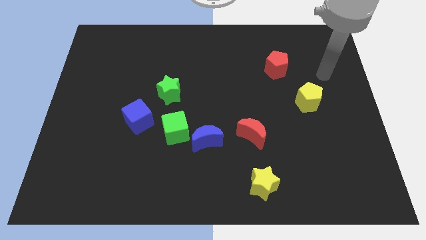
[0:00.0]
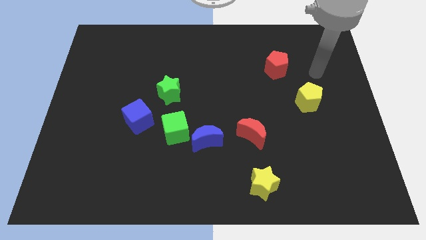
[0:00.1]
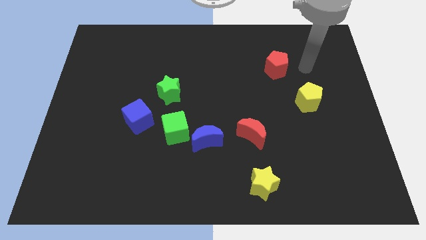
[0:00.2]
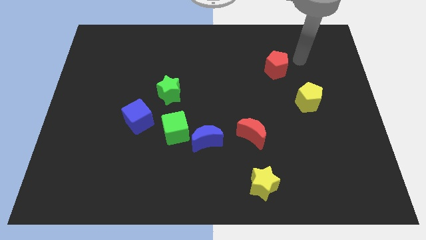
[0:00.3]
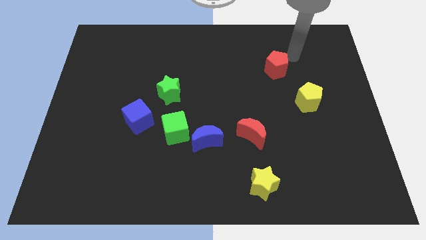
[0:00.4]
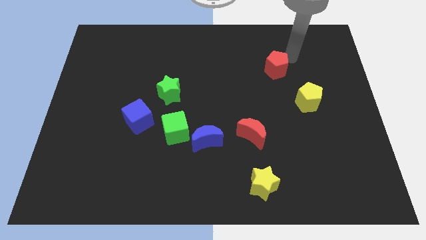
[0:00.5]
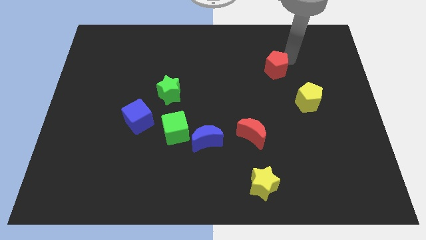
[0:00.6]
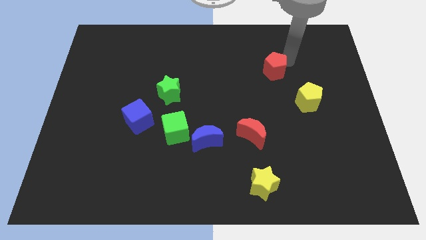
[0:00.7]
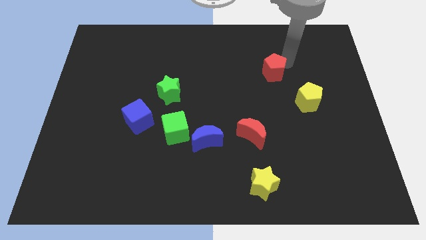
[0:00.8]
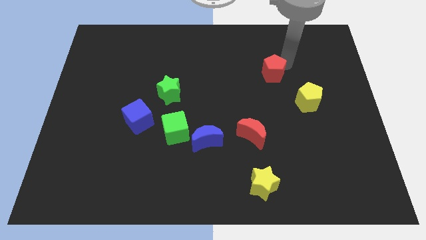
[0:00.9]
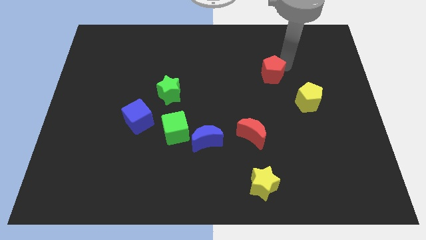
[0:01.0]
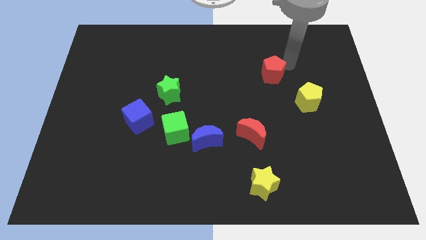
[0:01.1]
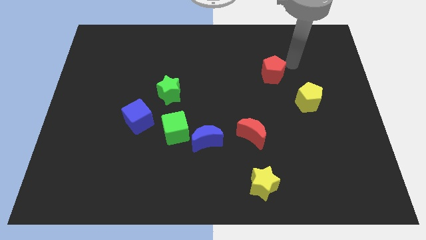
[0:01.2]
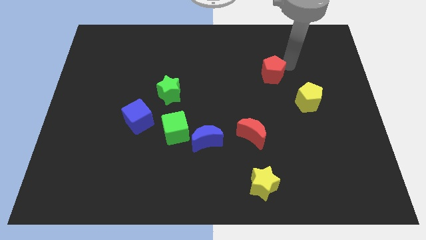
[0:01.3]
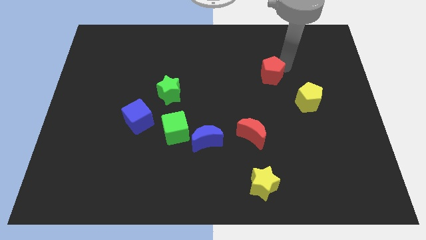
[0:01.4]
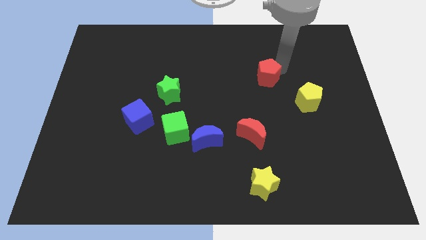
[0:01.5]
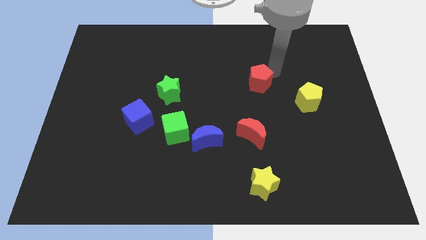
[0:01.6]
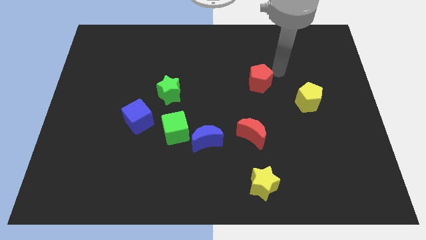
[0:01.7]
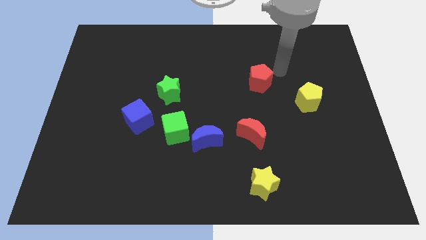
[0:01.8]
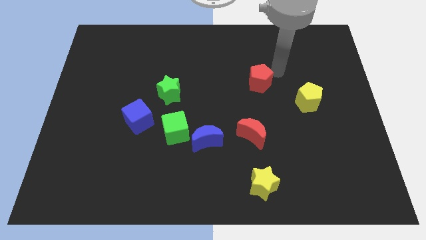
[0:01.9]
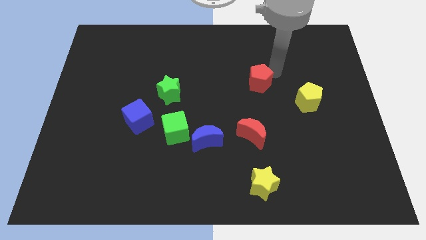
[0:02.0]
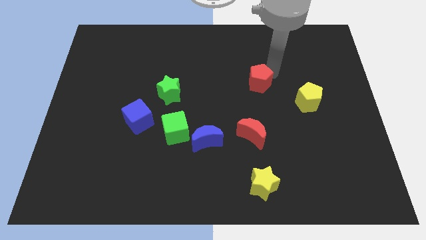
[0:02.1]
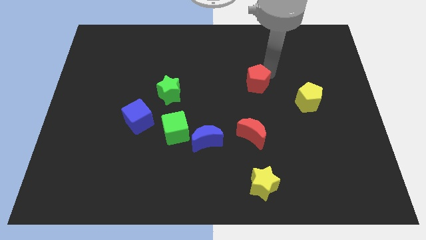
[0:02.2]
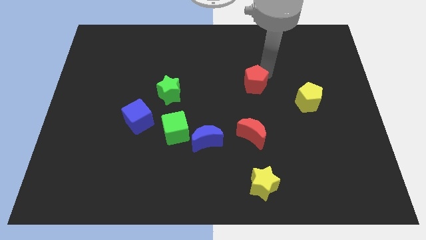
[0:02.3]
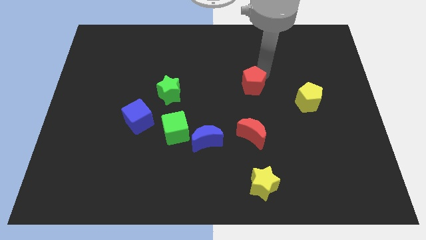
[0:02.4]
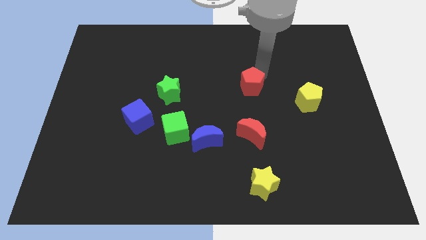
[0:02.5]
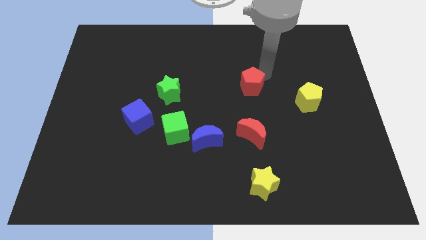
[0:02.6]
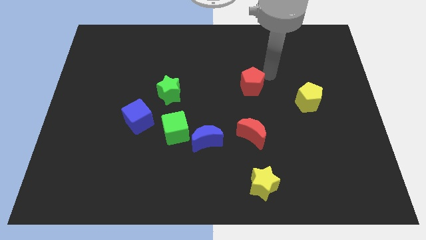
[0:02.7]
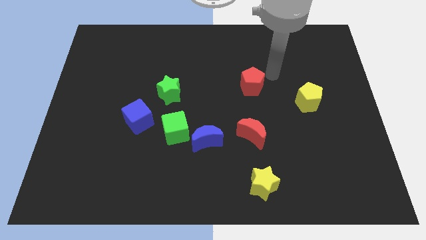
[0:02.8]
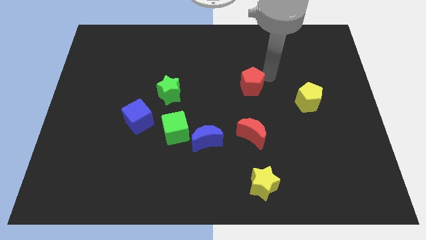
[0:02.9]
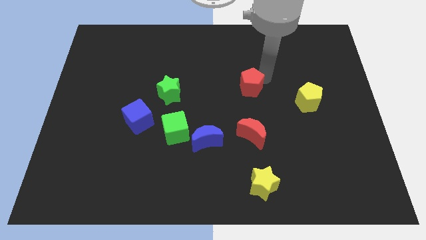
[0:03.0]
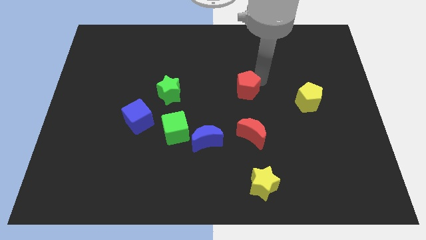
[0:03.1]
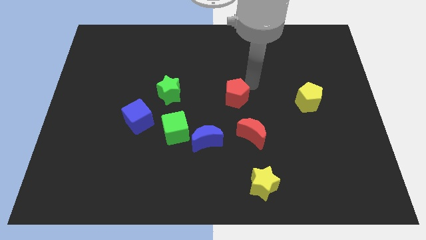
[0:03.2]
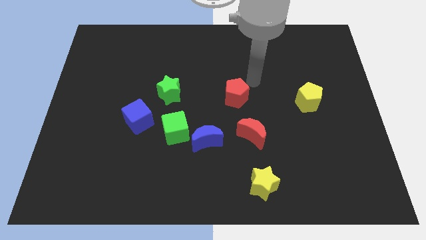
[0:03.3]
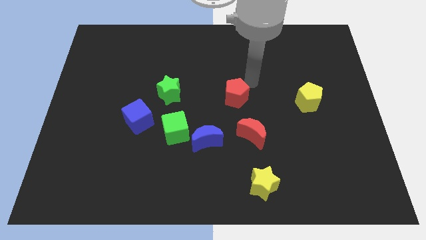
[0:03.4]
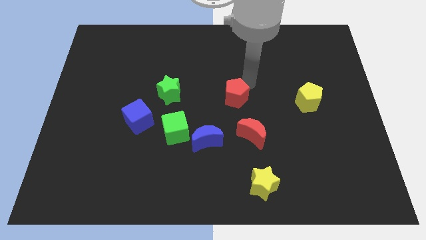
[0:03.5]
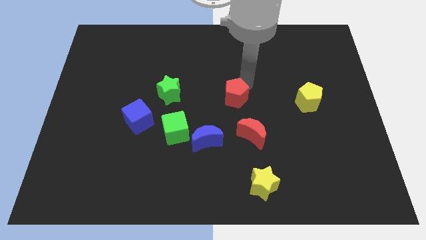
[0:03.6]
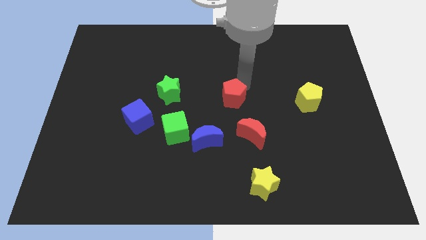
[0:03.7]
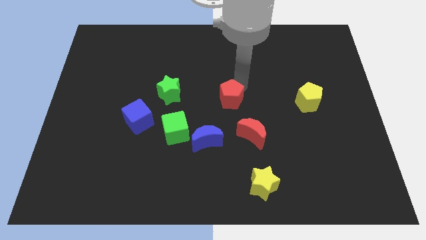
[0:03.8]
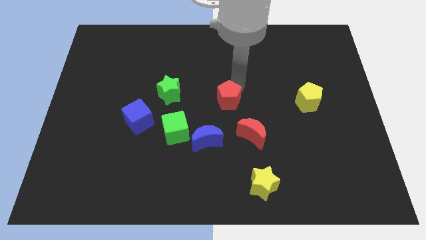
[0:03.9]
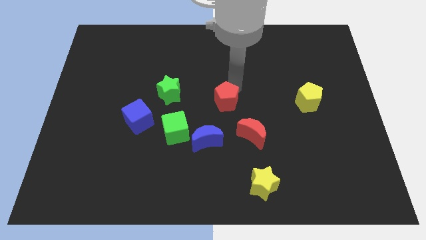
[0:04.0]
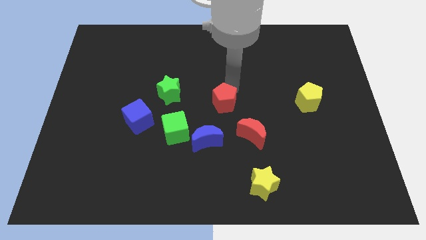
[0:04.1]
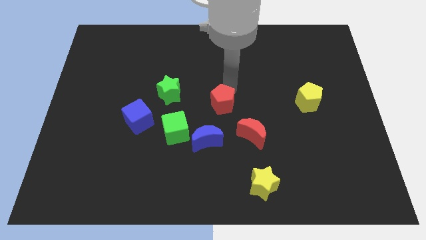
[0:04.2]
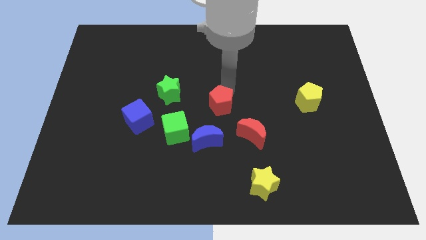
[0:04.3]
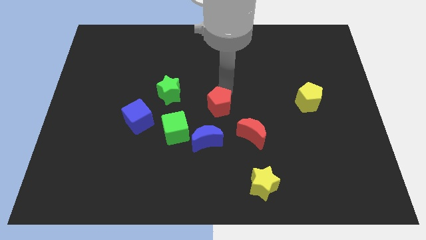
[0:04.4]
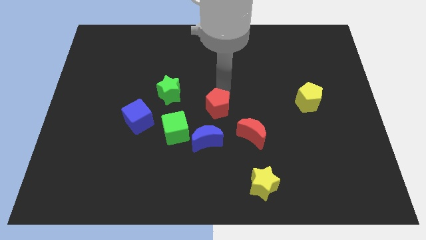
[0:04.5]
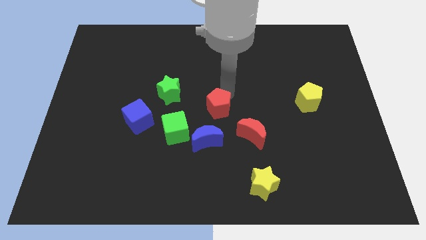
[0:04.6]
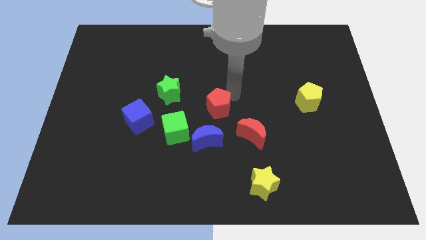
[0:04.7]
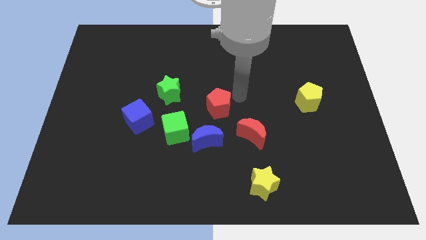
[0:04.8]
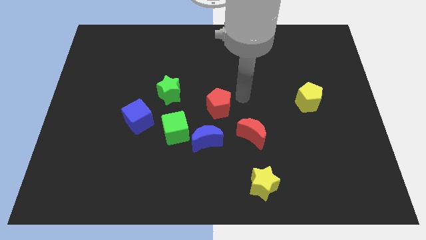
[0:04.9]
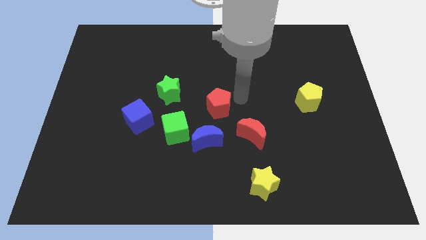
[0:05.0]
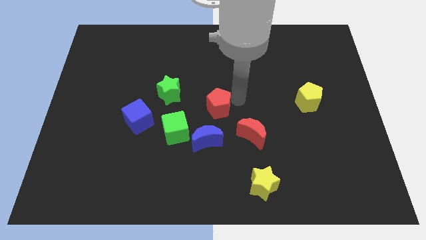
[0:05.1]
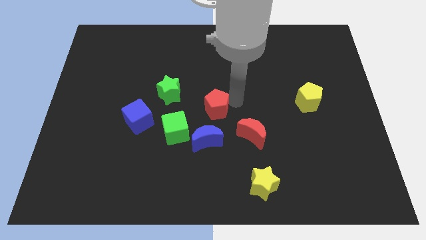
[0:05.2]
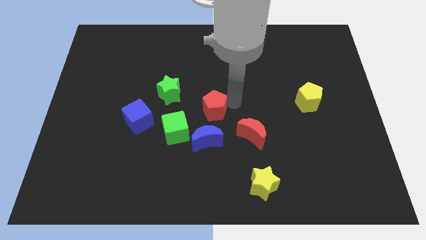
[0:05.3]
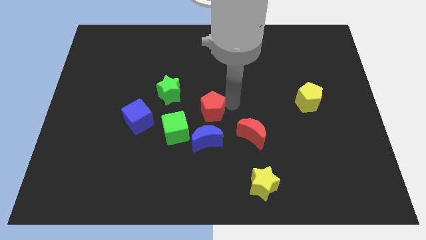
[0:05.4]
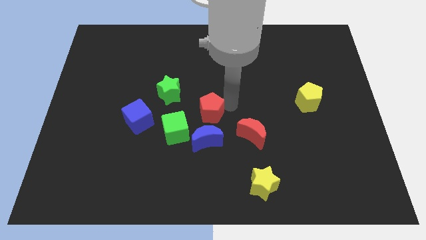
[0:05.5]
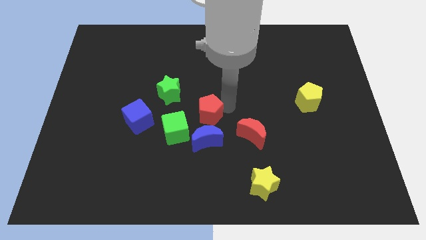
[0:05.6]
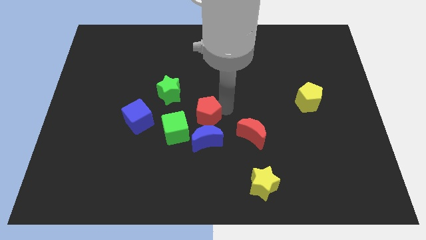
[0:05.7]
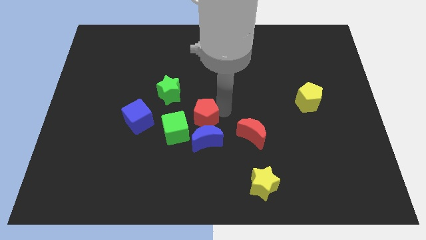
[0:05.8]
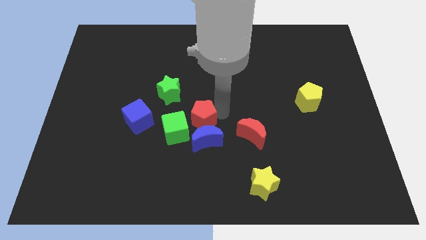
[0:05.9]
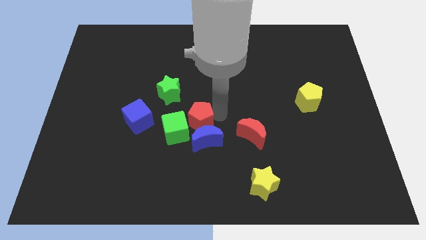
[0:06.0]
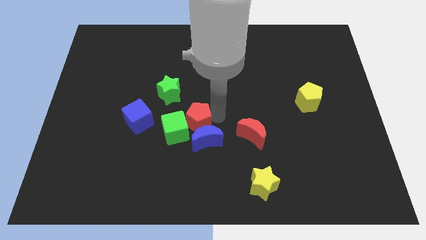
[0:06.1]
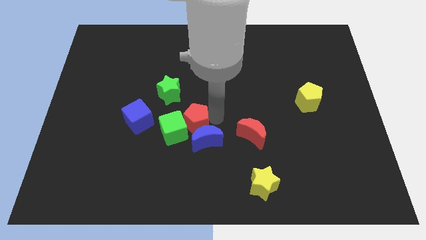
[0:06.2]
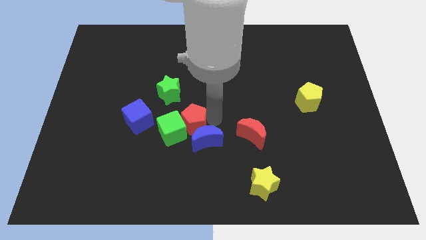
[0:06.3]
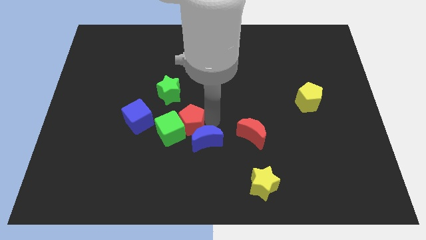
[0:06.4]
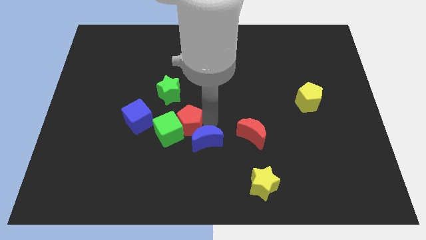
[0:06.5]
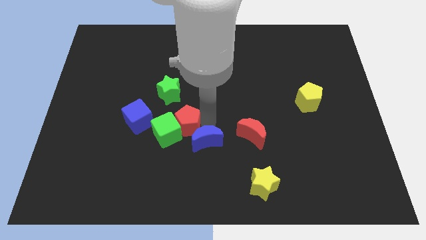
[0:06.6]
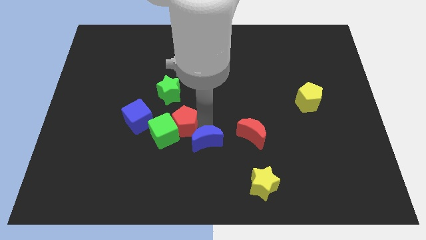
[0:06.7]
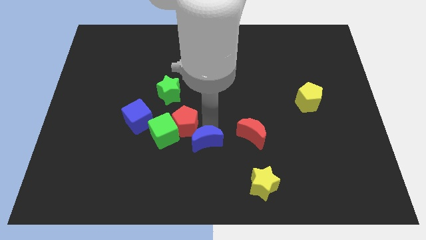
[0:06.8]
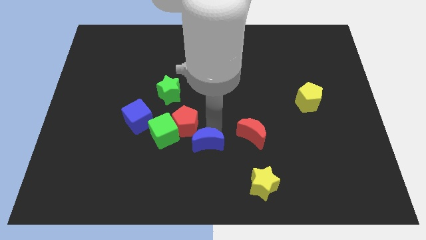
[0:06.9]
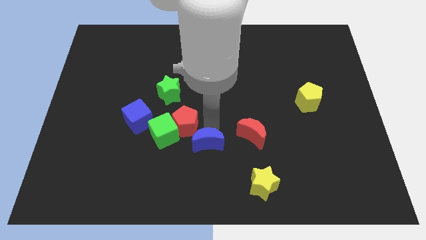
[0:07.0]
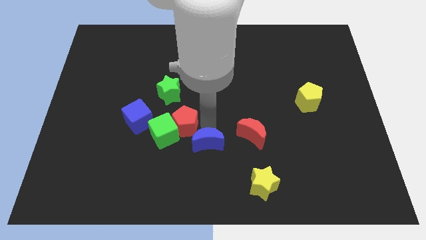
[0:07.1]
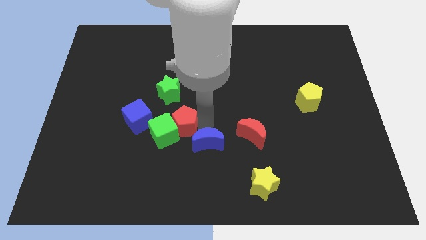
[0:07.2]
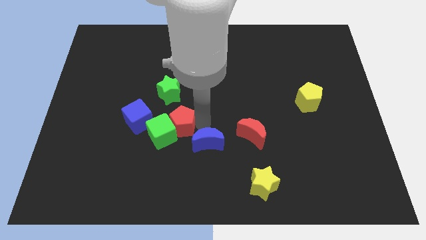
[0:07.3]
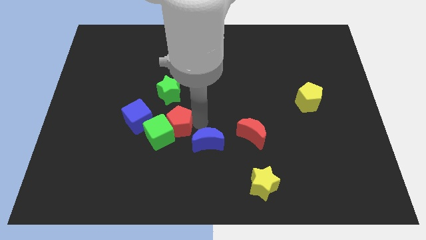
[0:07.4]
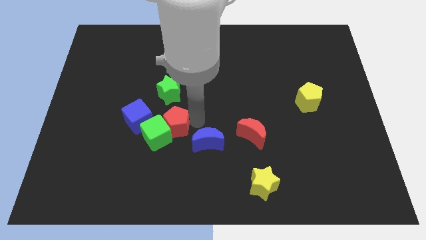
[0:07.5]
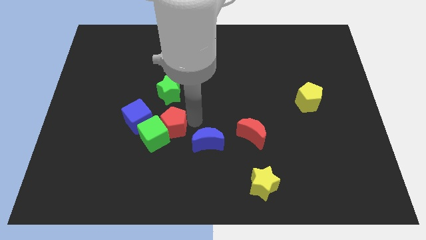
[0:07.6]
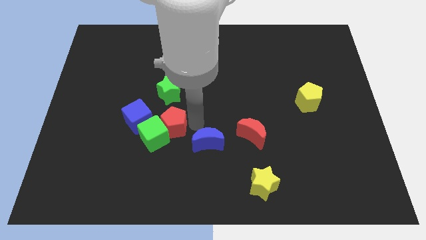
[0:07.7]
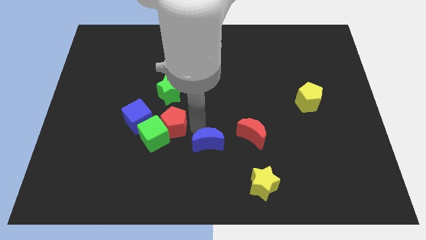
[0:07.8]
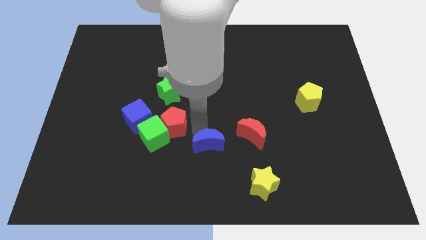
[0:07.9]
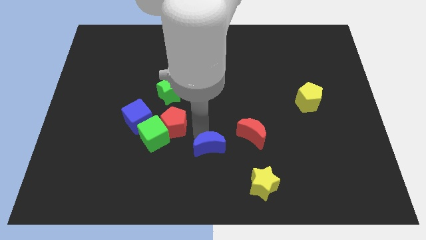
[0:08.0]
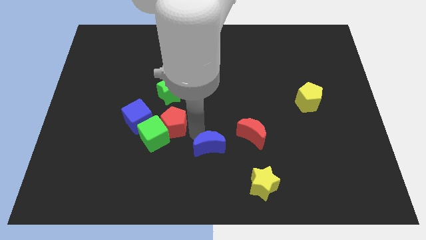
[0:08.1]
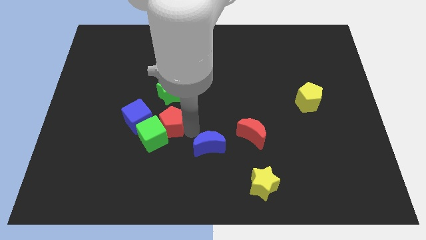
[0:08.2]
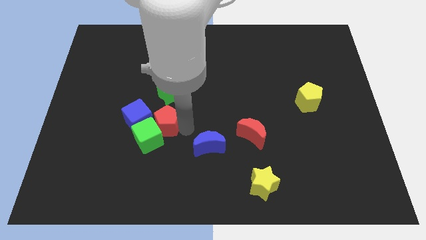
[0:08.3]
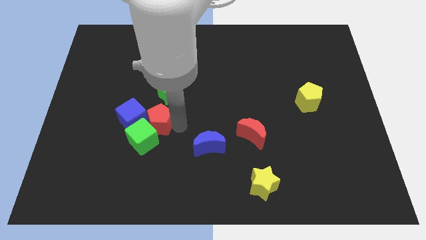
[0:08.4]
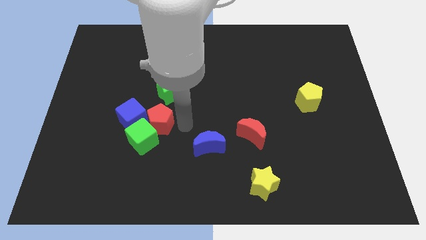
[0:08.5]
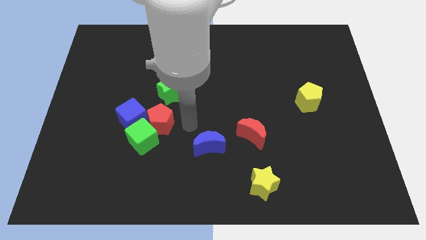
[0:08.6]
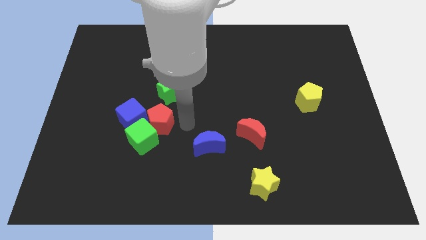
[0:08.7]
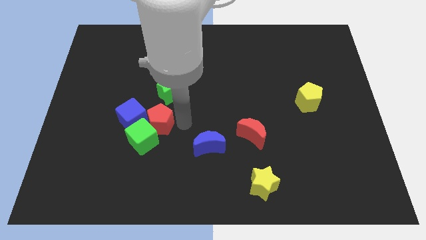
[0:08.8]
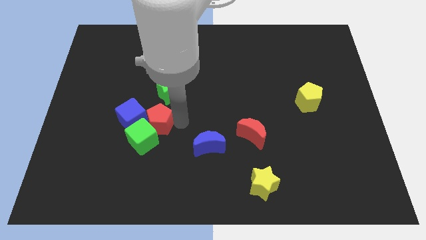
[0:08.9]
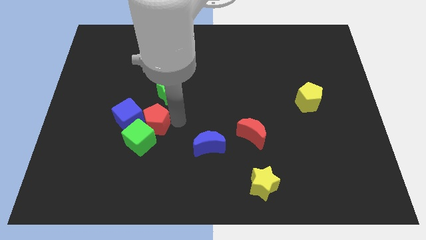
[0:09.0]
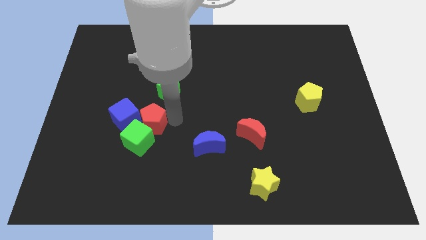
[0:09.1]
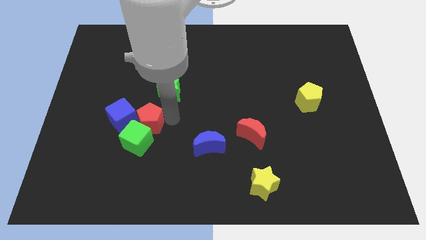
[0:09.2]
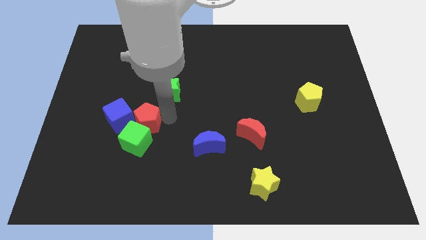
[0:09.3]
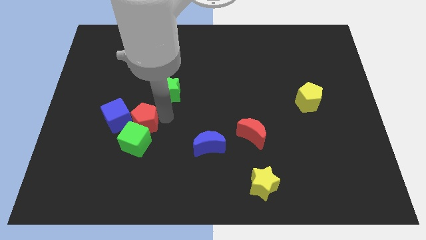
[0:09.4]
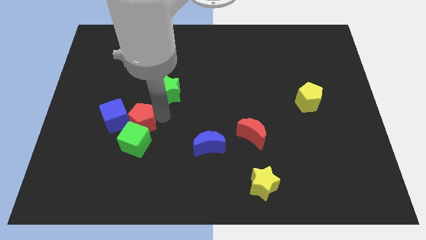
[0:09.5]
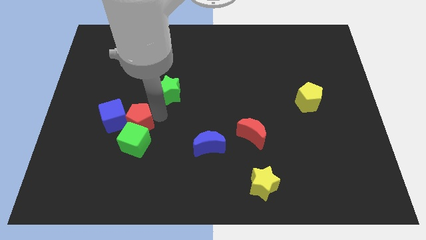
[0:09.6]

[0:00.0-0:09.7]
put the red pentagon close to the blue cube
